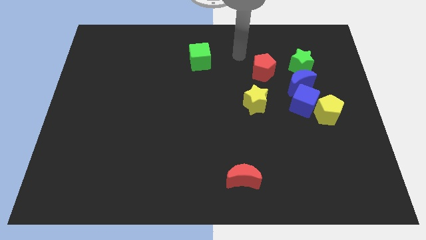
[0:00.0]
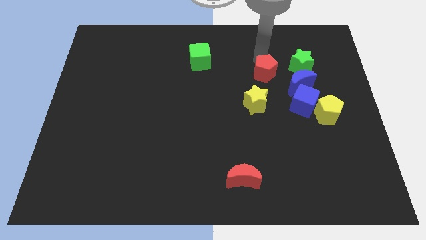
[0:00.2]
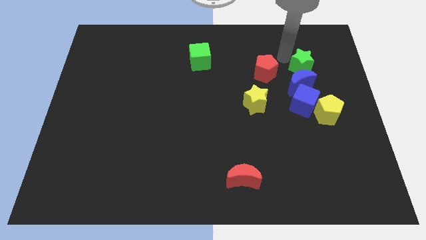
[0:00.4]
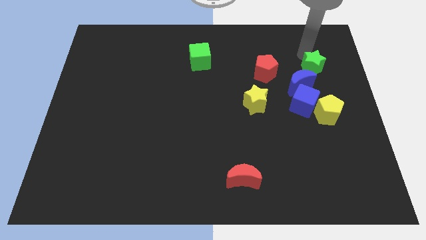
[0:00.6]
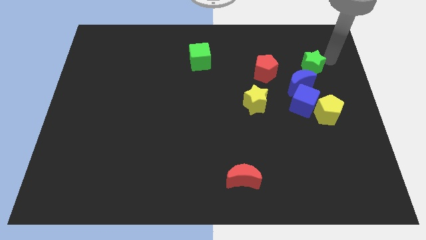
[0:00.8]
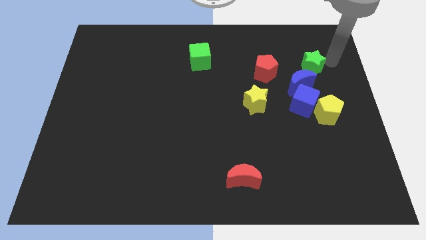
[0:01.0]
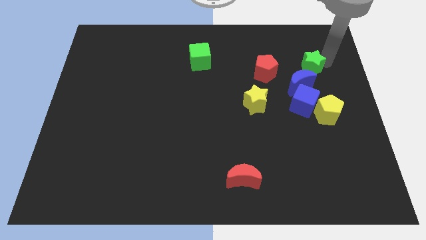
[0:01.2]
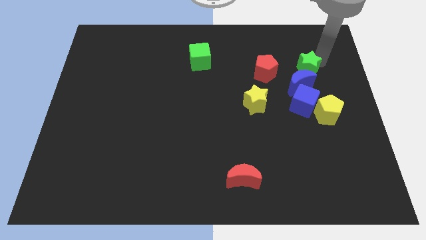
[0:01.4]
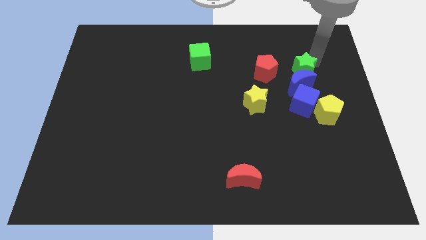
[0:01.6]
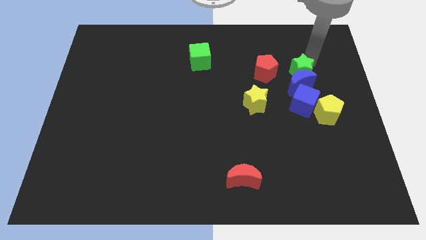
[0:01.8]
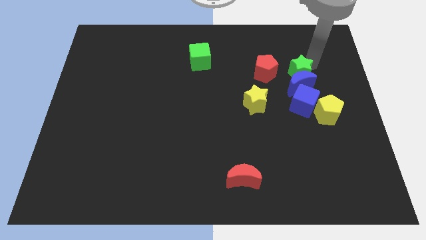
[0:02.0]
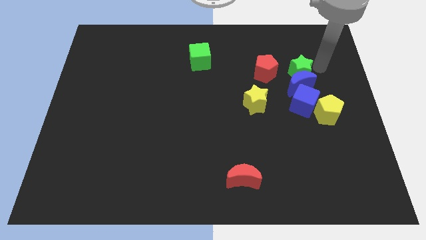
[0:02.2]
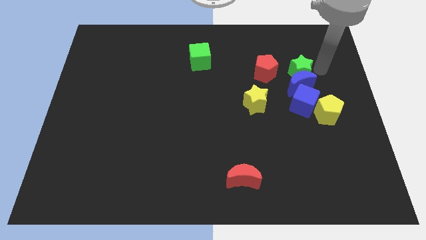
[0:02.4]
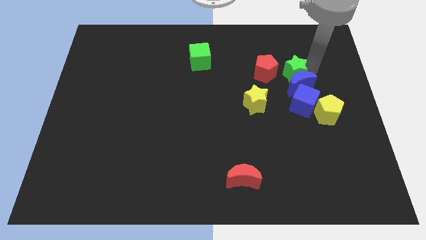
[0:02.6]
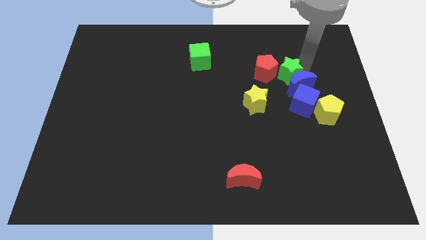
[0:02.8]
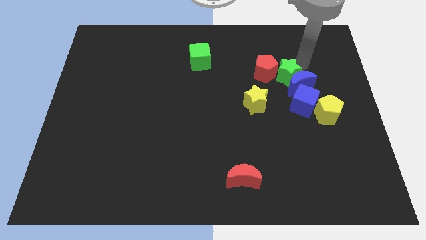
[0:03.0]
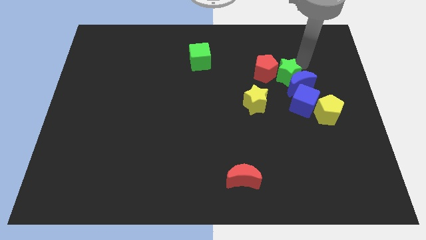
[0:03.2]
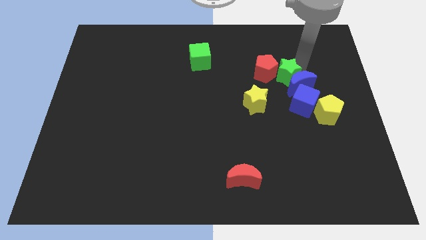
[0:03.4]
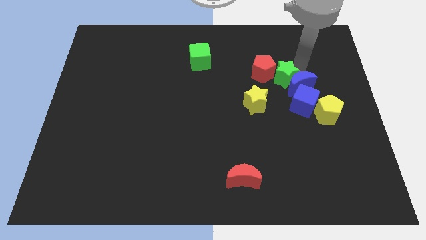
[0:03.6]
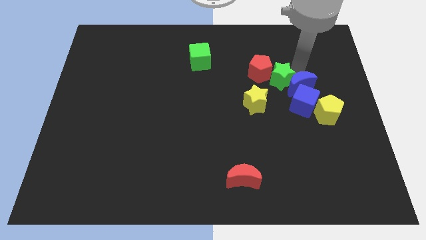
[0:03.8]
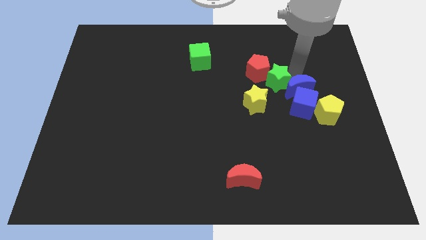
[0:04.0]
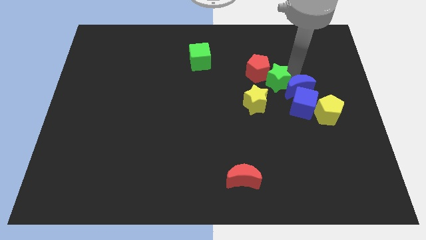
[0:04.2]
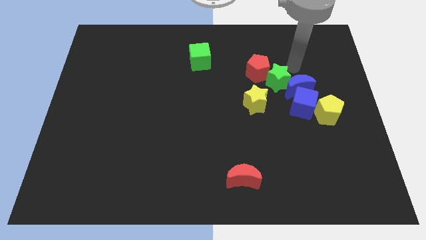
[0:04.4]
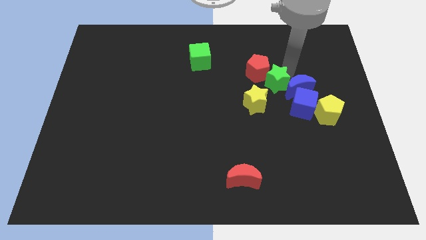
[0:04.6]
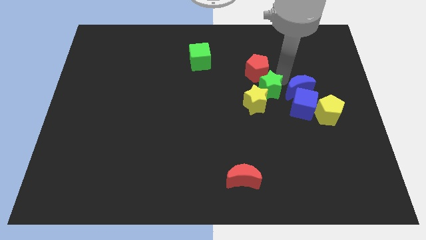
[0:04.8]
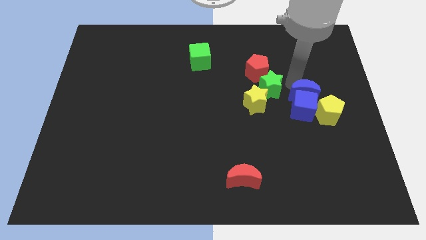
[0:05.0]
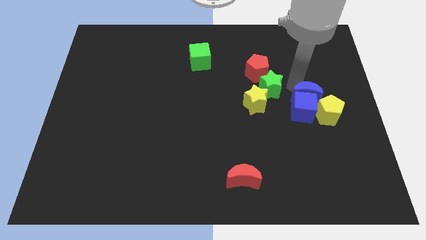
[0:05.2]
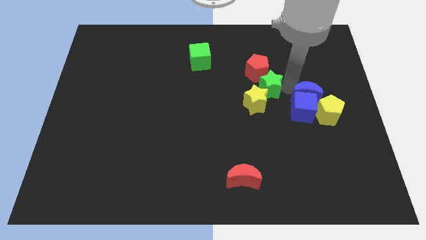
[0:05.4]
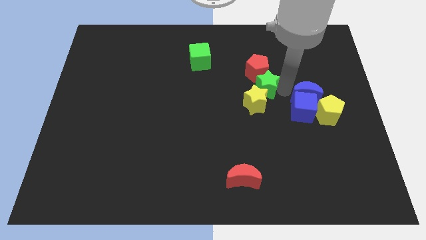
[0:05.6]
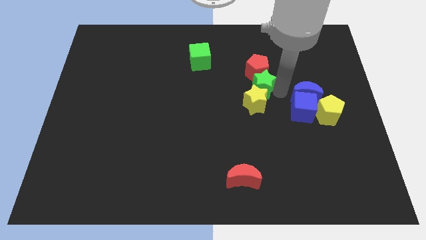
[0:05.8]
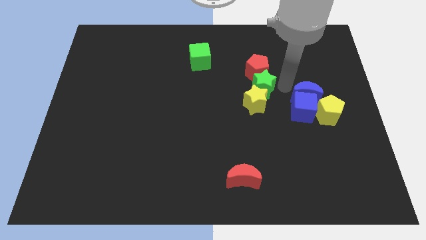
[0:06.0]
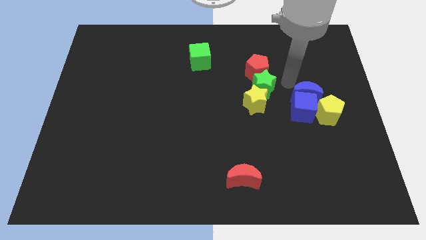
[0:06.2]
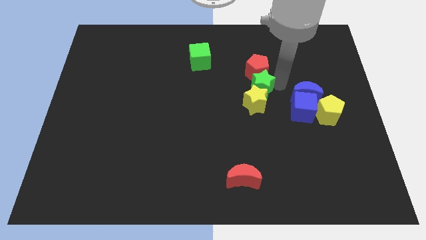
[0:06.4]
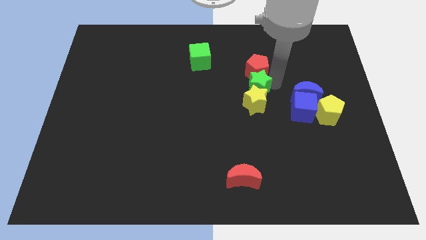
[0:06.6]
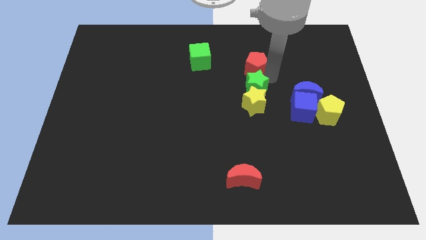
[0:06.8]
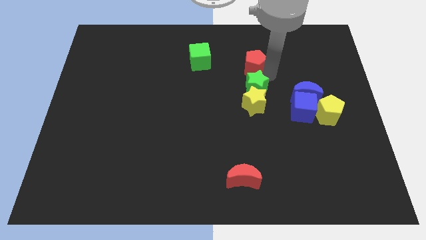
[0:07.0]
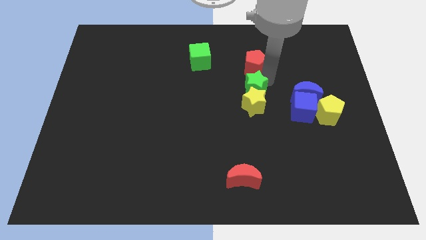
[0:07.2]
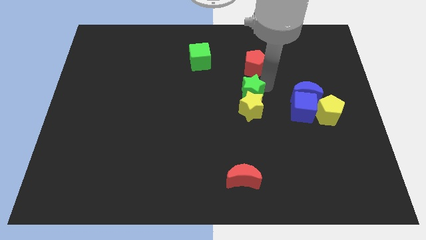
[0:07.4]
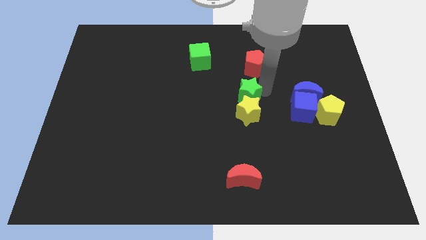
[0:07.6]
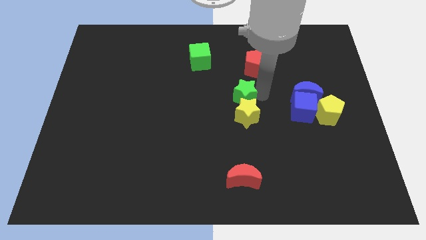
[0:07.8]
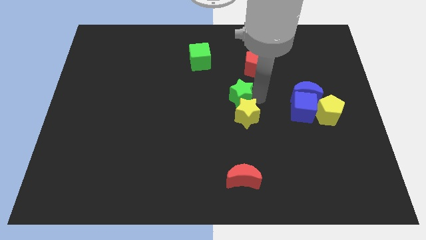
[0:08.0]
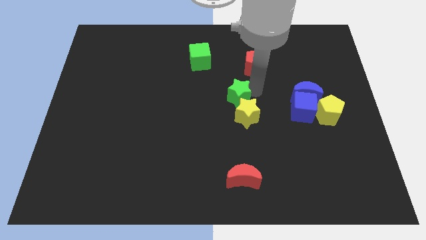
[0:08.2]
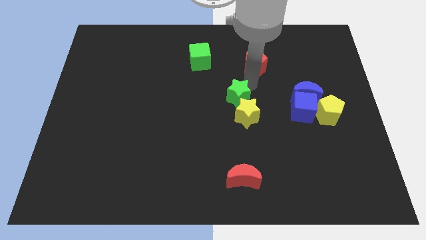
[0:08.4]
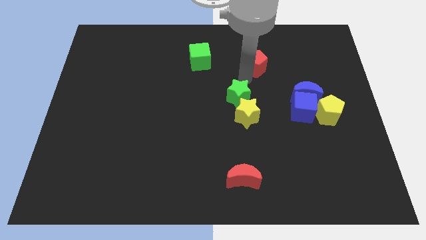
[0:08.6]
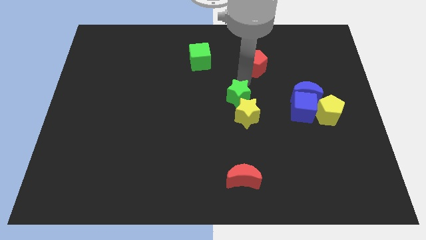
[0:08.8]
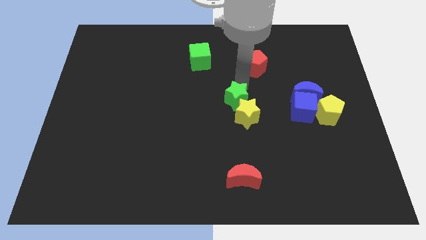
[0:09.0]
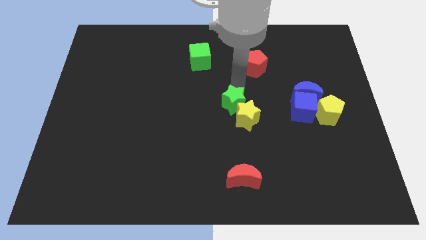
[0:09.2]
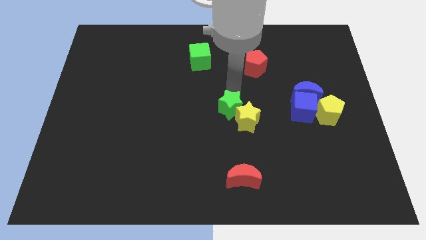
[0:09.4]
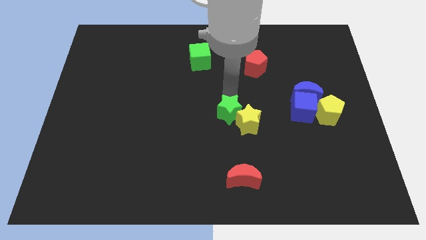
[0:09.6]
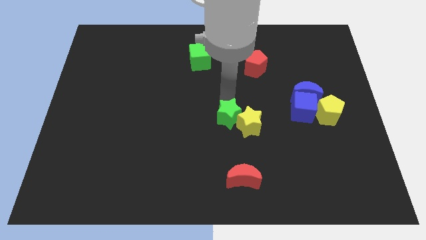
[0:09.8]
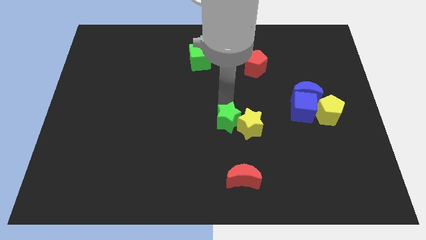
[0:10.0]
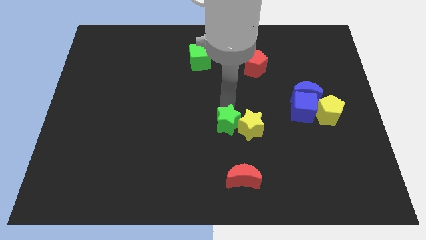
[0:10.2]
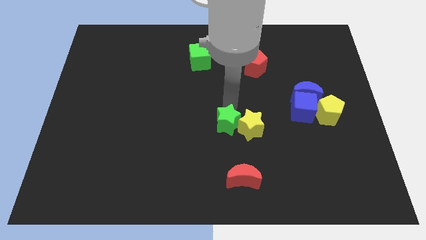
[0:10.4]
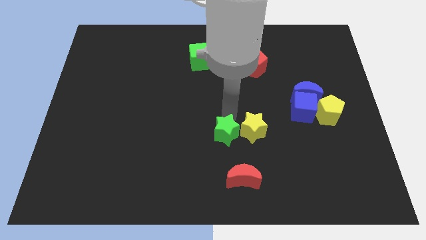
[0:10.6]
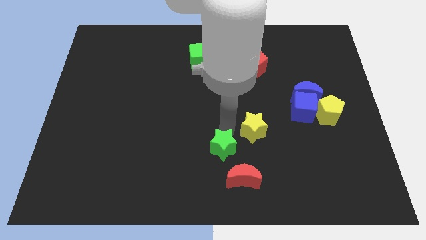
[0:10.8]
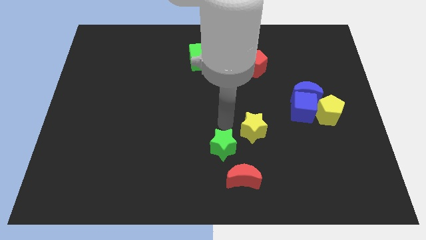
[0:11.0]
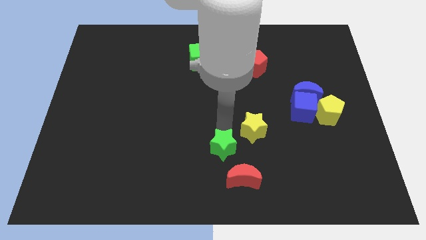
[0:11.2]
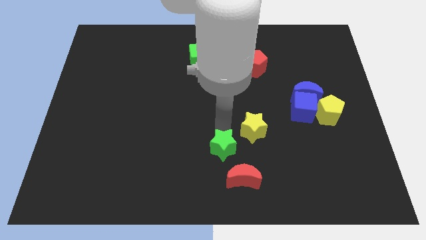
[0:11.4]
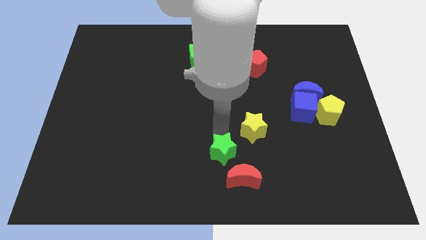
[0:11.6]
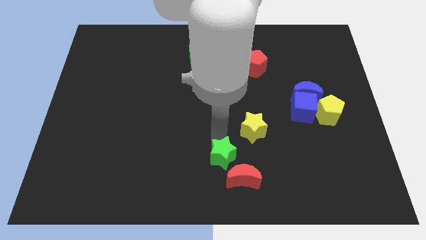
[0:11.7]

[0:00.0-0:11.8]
slide the green star to the bottom
